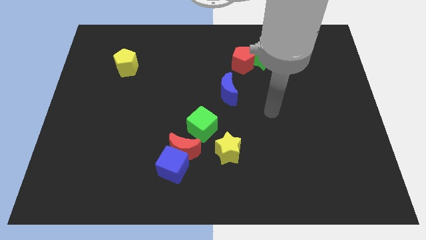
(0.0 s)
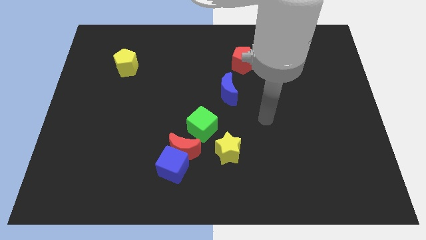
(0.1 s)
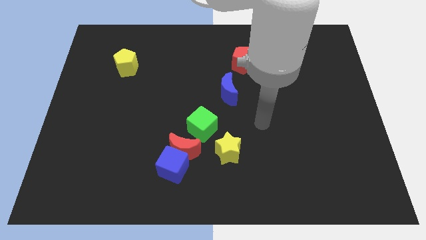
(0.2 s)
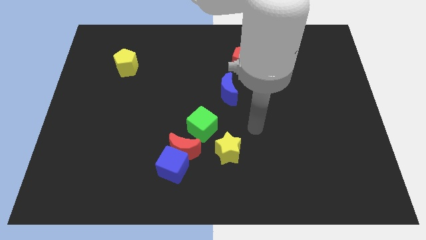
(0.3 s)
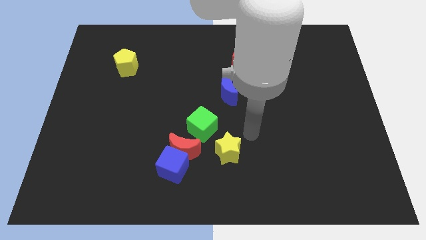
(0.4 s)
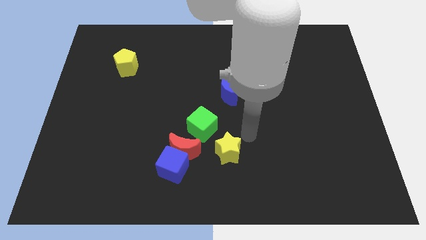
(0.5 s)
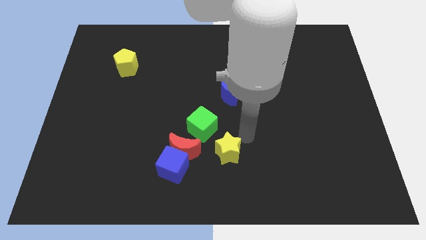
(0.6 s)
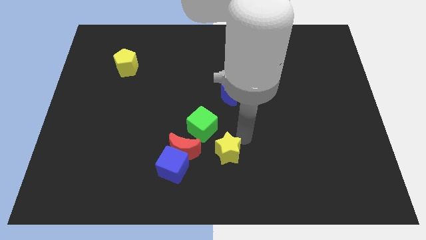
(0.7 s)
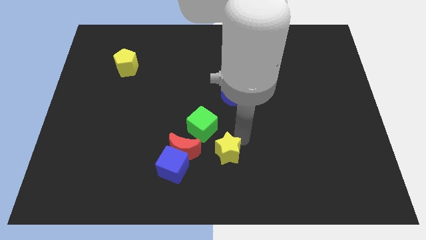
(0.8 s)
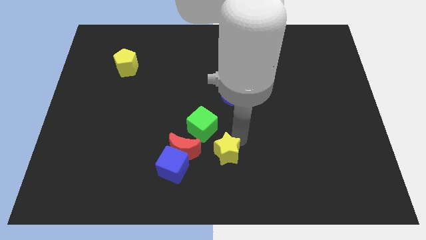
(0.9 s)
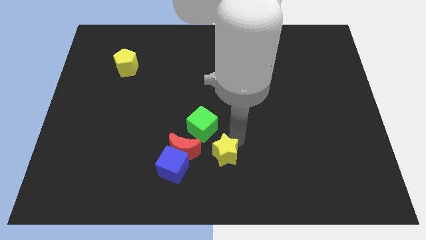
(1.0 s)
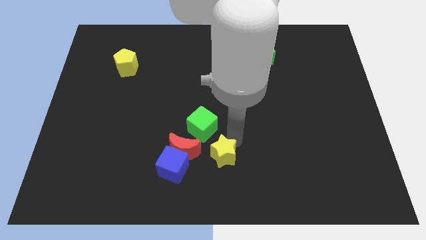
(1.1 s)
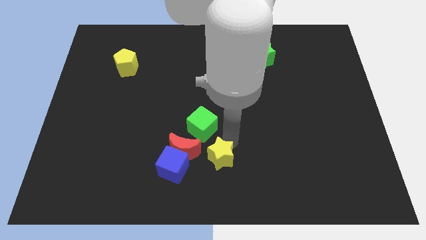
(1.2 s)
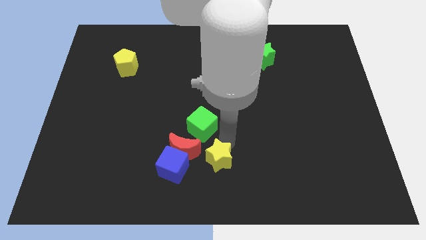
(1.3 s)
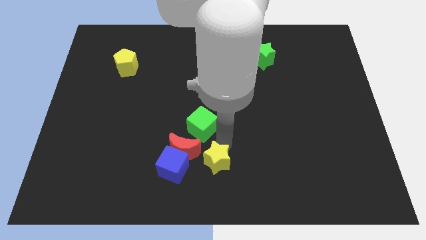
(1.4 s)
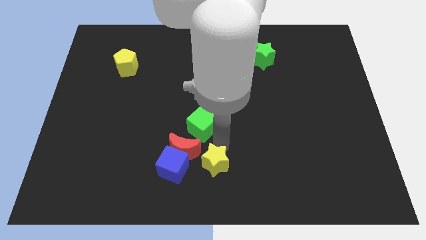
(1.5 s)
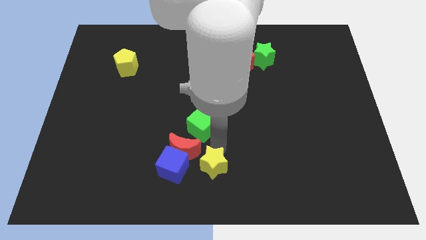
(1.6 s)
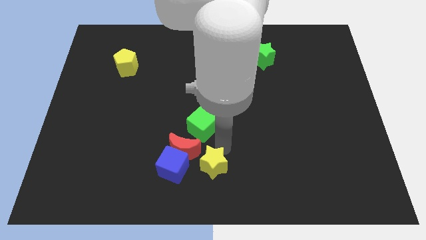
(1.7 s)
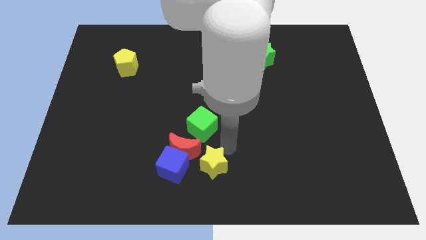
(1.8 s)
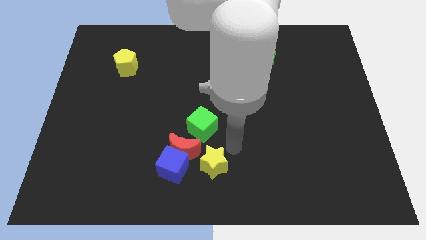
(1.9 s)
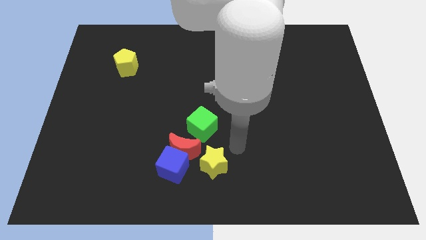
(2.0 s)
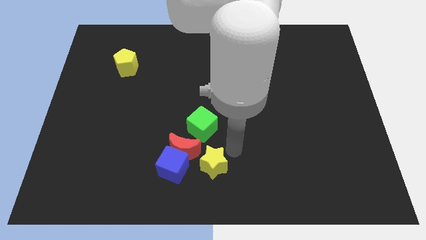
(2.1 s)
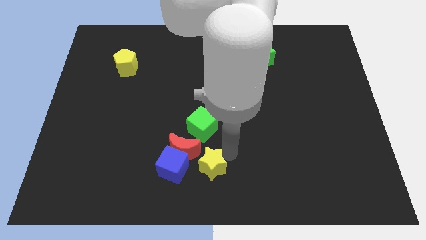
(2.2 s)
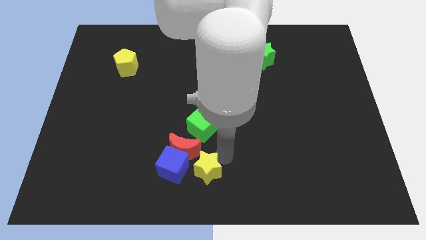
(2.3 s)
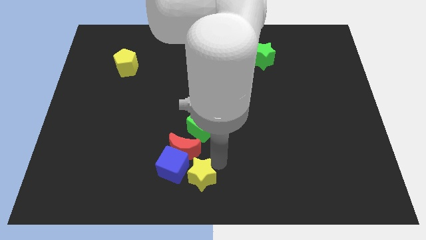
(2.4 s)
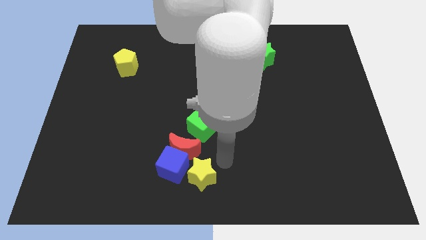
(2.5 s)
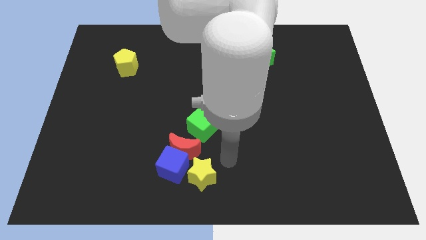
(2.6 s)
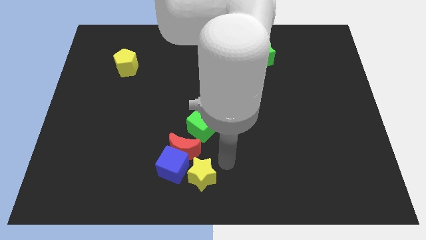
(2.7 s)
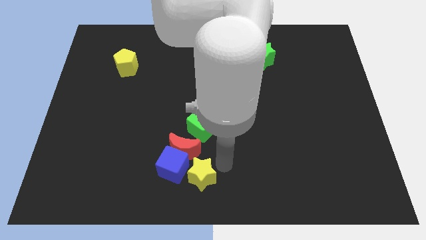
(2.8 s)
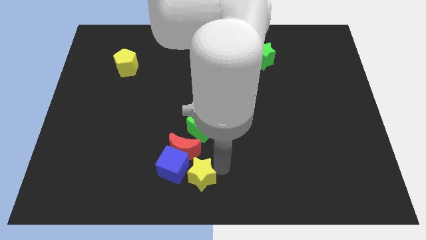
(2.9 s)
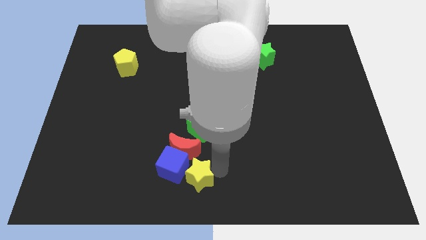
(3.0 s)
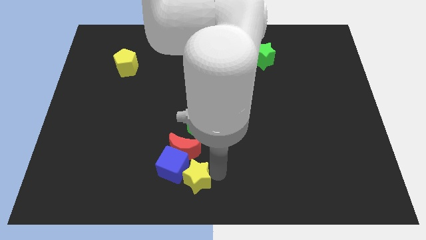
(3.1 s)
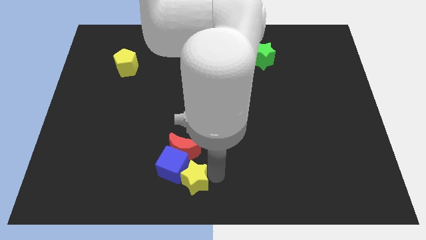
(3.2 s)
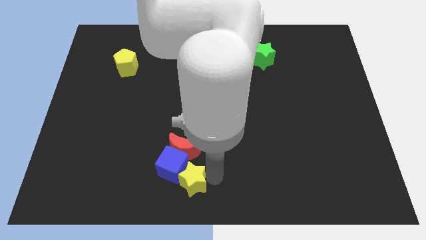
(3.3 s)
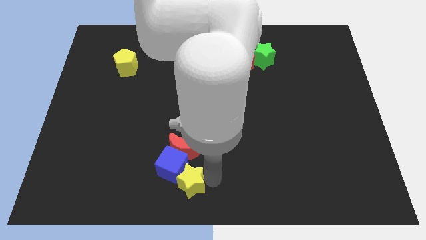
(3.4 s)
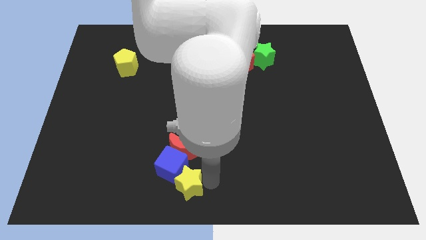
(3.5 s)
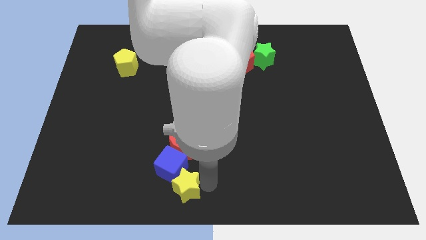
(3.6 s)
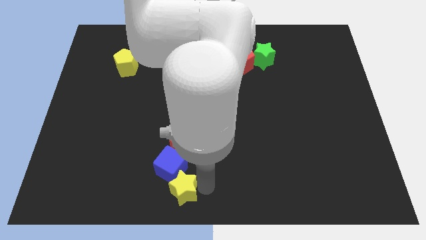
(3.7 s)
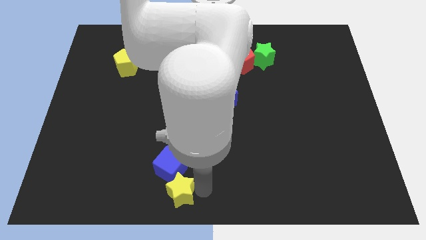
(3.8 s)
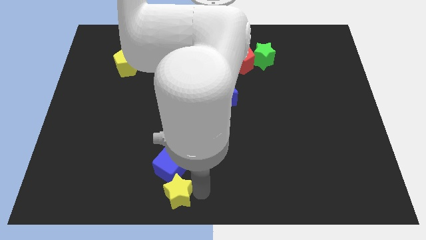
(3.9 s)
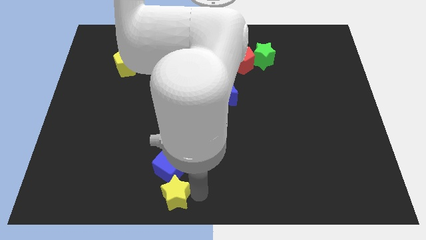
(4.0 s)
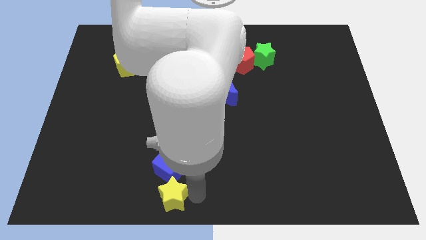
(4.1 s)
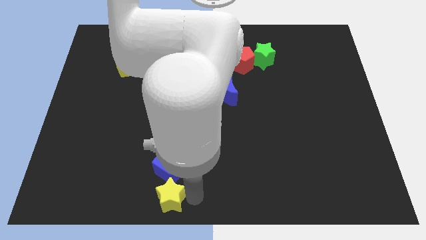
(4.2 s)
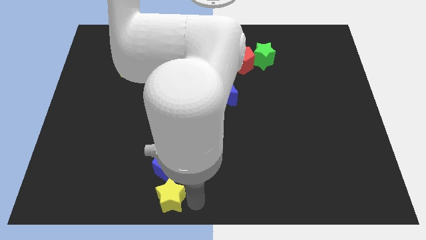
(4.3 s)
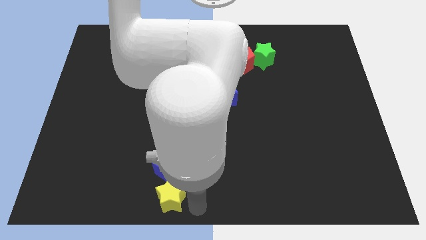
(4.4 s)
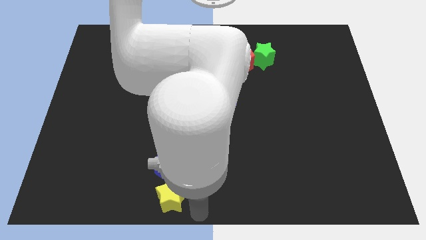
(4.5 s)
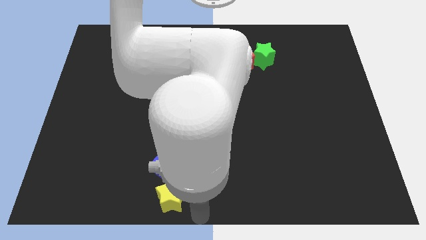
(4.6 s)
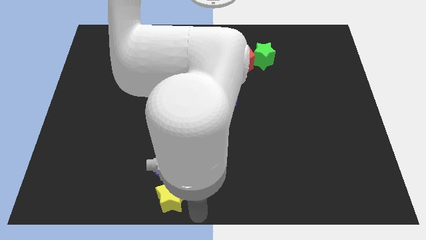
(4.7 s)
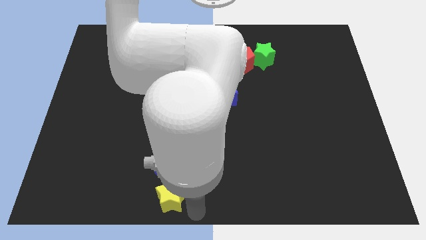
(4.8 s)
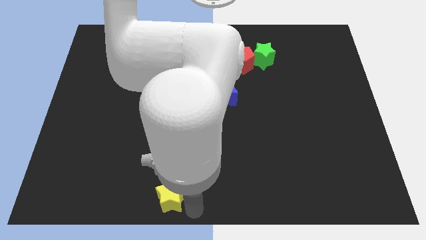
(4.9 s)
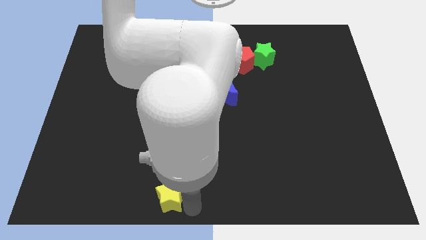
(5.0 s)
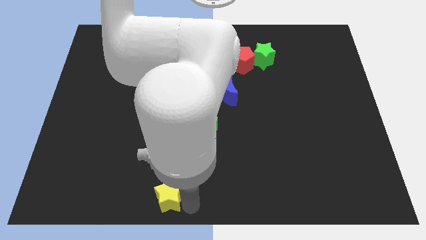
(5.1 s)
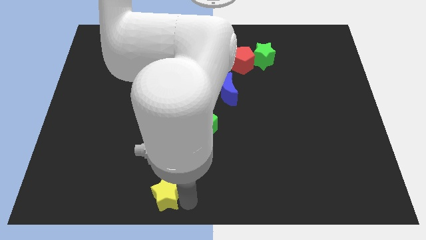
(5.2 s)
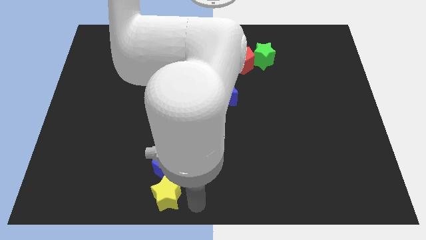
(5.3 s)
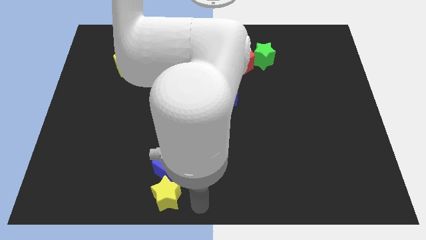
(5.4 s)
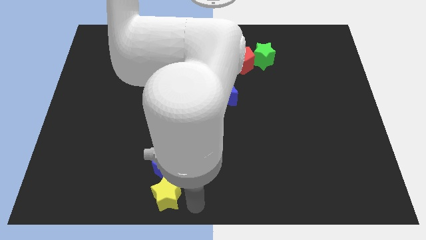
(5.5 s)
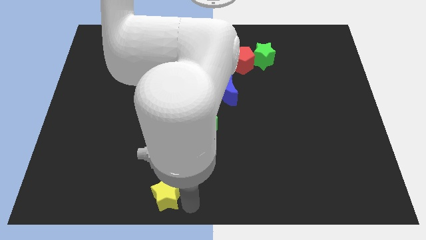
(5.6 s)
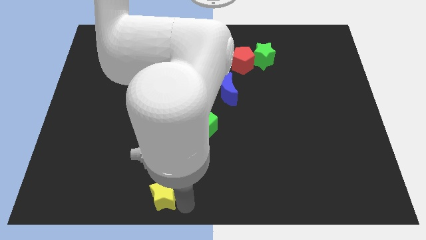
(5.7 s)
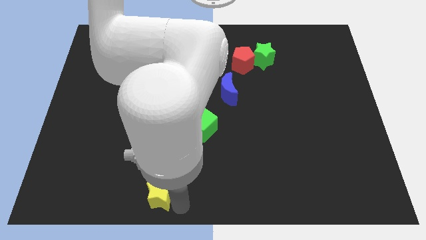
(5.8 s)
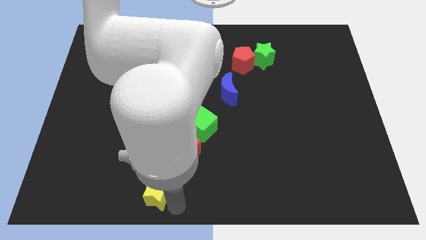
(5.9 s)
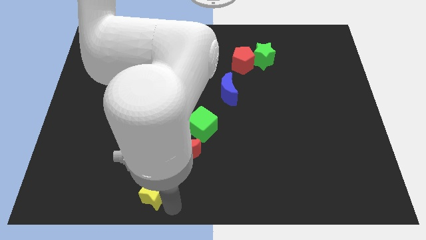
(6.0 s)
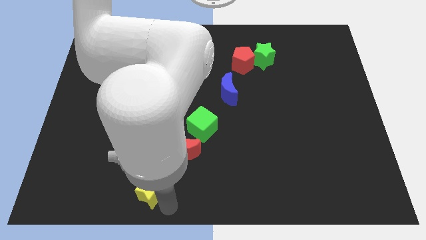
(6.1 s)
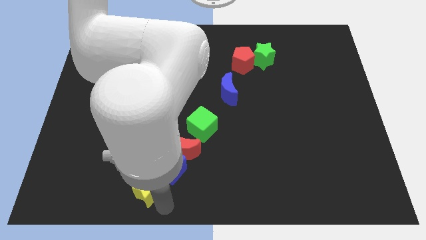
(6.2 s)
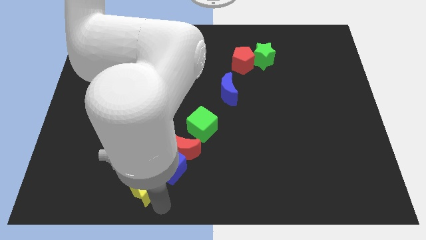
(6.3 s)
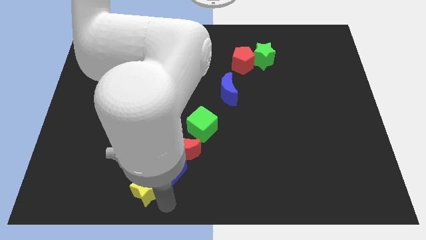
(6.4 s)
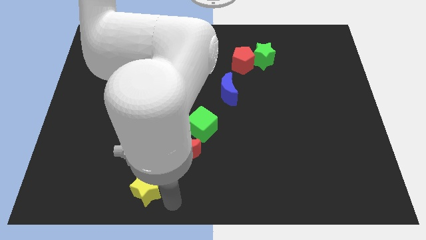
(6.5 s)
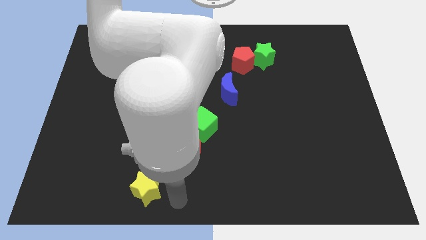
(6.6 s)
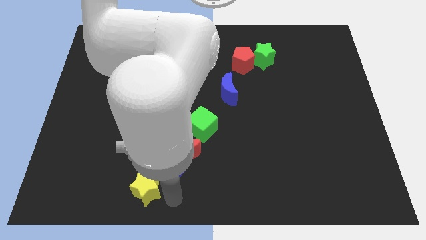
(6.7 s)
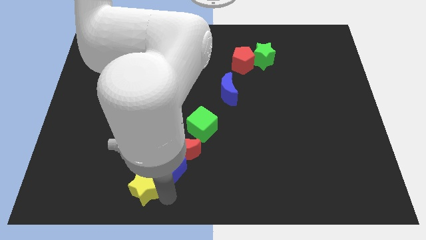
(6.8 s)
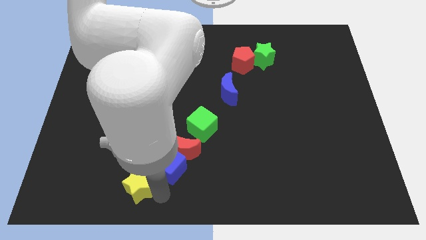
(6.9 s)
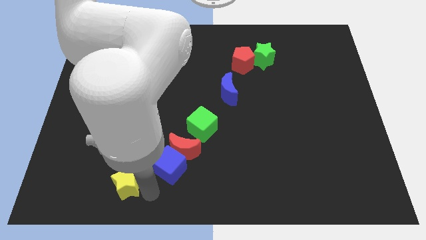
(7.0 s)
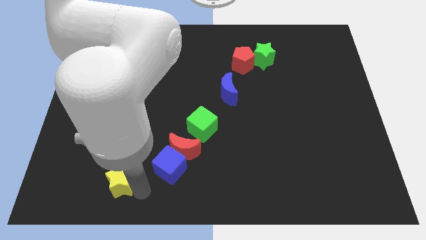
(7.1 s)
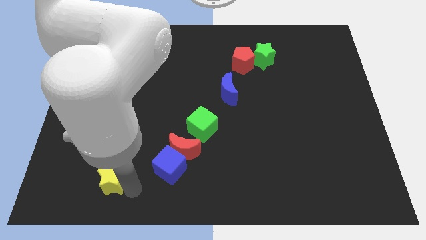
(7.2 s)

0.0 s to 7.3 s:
move the yellow star to the left

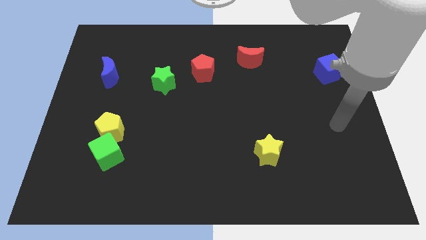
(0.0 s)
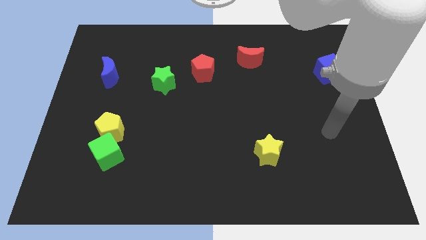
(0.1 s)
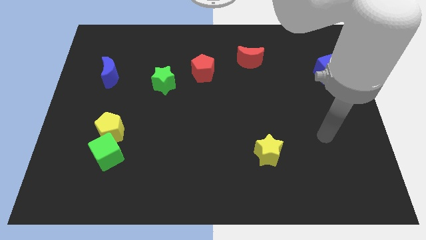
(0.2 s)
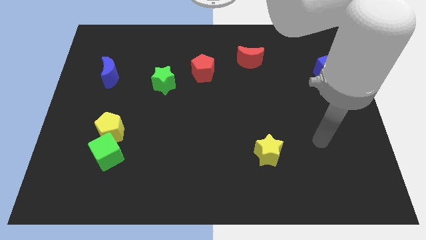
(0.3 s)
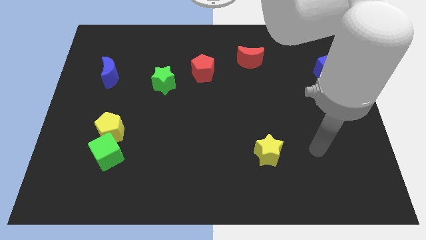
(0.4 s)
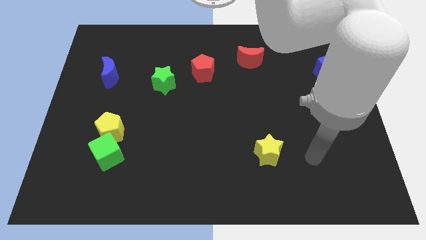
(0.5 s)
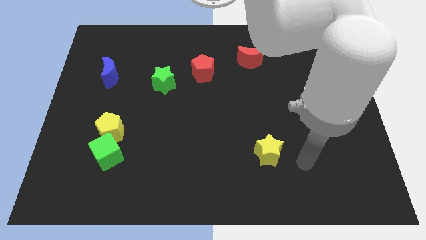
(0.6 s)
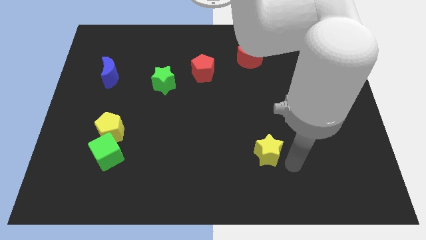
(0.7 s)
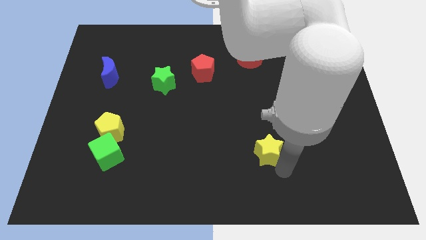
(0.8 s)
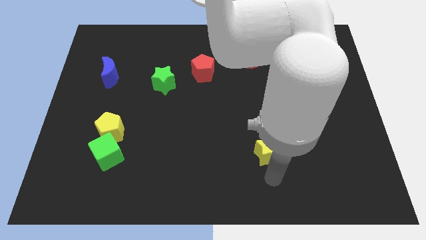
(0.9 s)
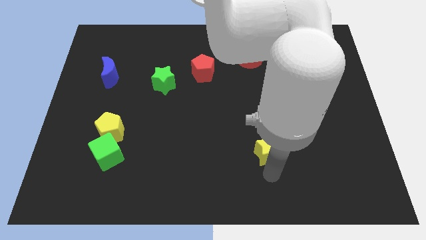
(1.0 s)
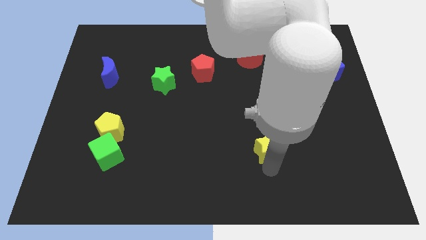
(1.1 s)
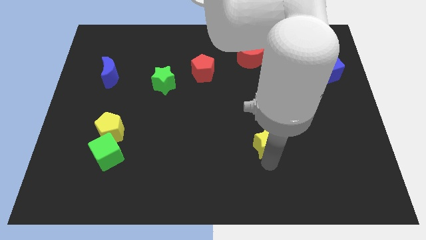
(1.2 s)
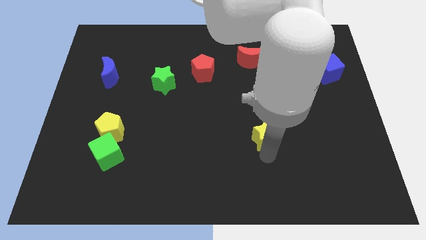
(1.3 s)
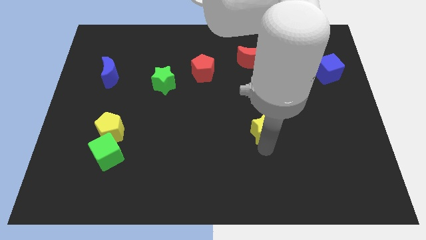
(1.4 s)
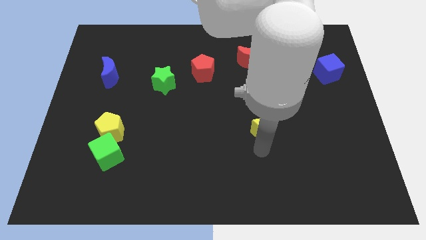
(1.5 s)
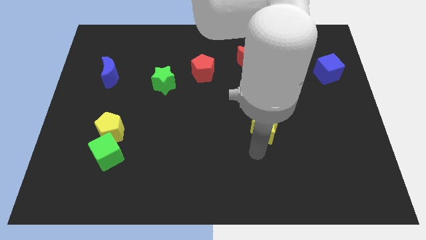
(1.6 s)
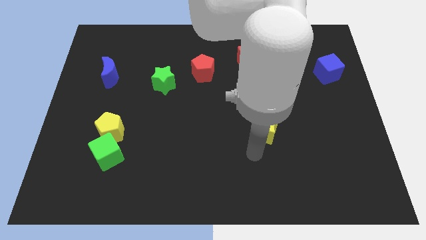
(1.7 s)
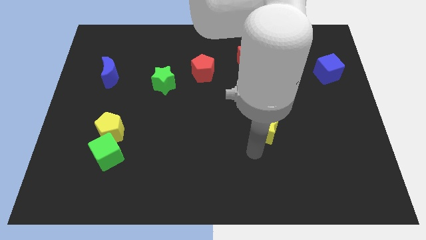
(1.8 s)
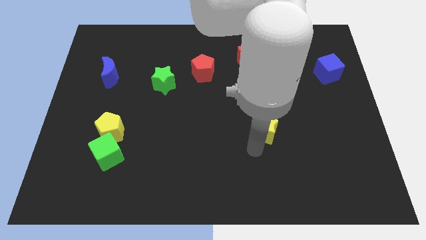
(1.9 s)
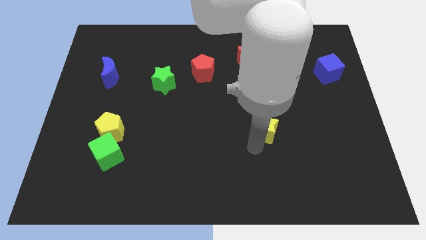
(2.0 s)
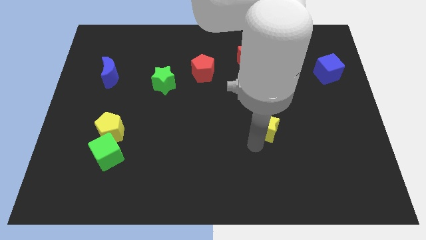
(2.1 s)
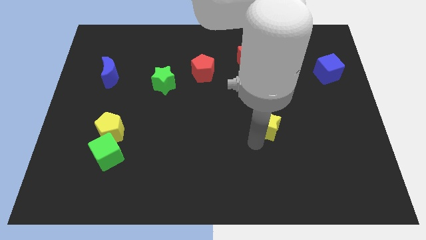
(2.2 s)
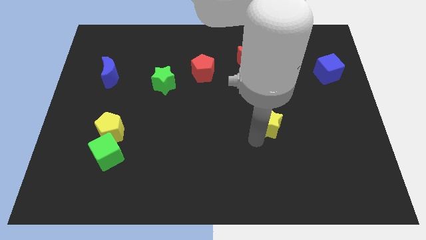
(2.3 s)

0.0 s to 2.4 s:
slide the yellow star somewhat upwards
